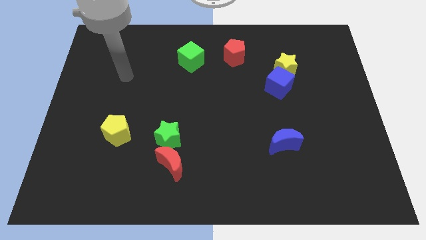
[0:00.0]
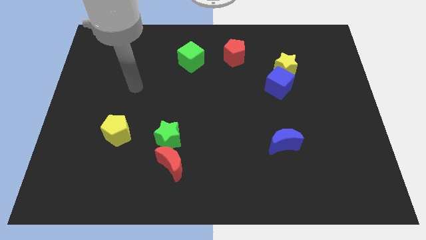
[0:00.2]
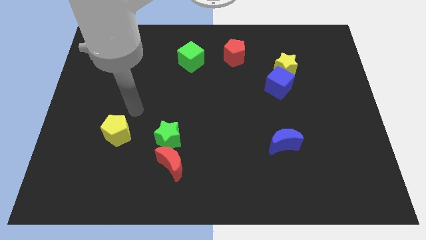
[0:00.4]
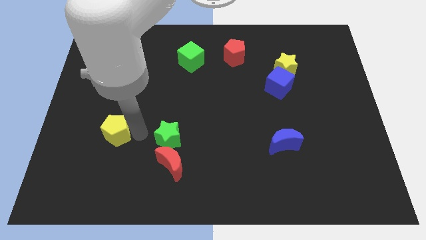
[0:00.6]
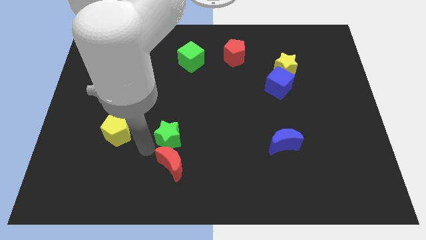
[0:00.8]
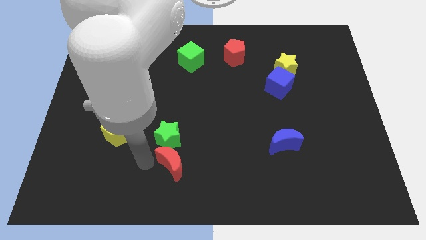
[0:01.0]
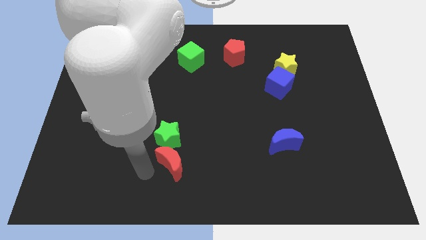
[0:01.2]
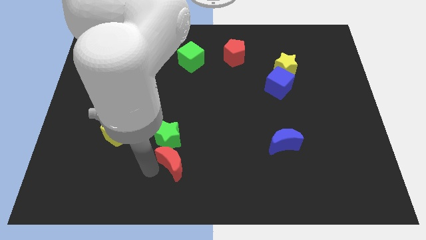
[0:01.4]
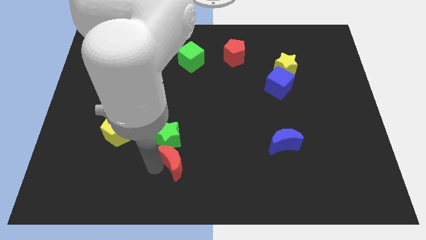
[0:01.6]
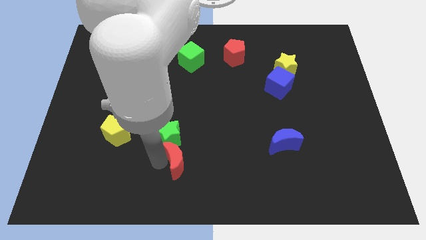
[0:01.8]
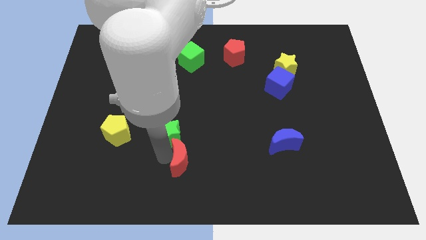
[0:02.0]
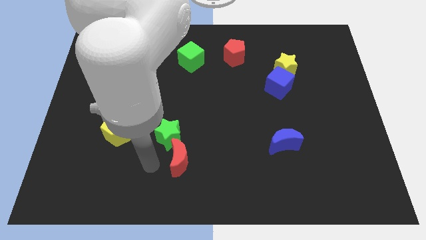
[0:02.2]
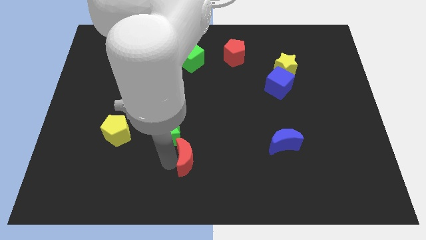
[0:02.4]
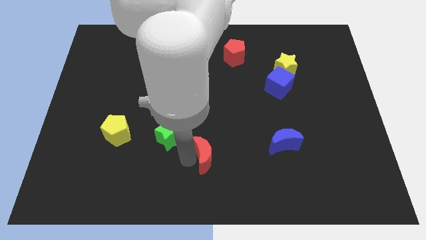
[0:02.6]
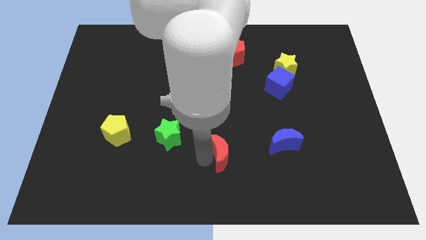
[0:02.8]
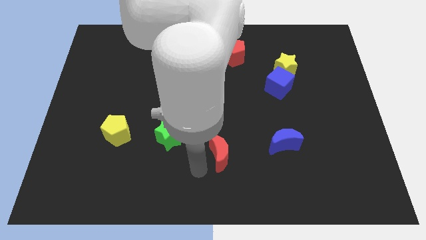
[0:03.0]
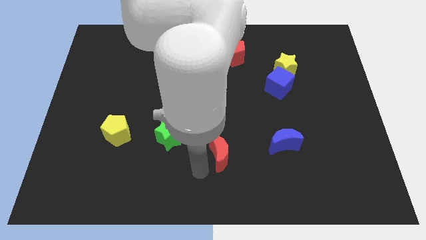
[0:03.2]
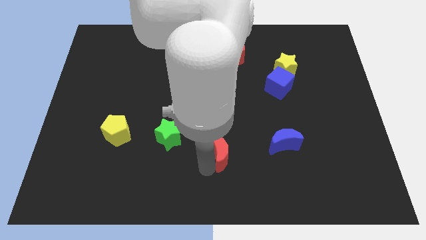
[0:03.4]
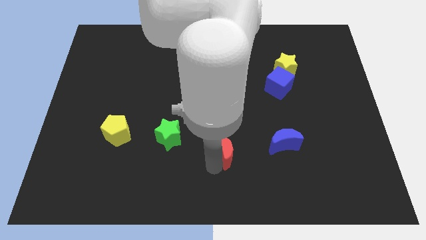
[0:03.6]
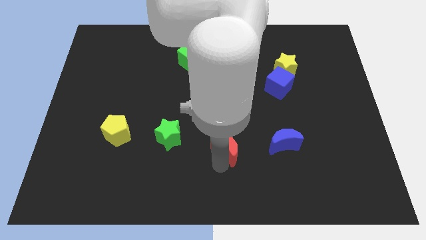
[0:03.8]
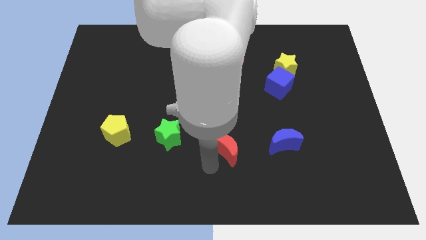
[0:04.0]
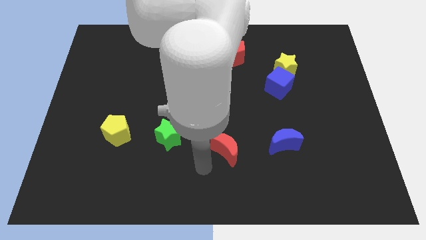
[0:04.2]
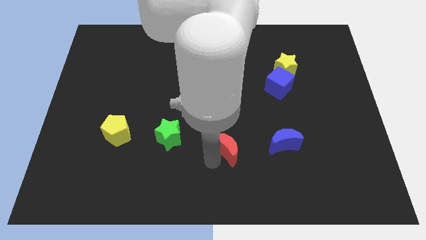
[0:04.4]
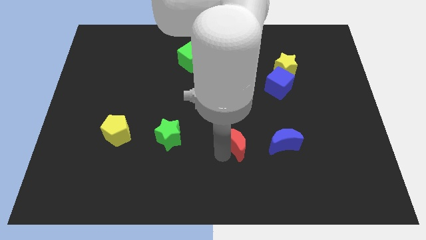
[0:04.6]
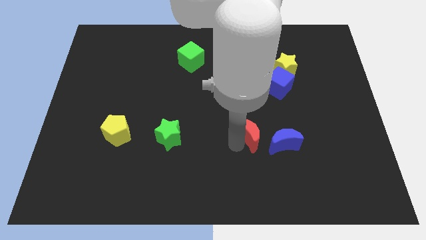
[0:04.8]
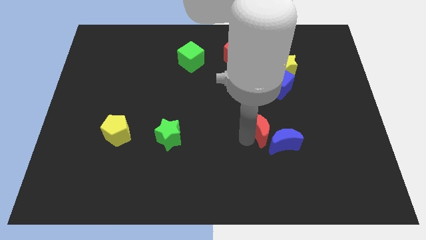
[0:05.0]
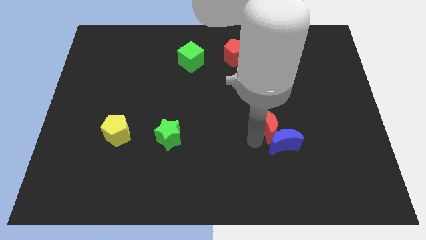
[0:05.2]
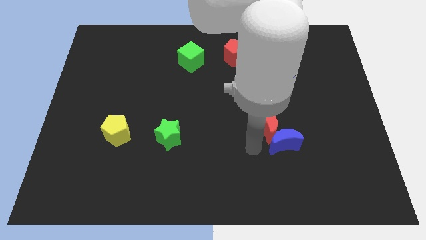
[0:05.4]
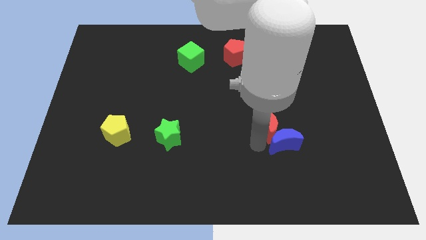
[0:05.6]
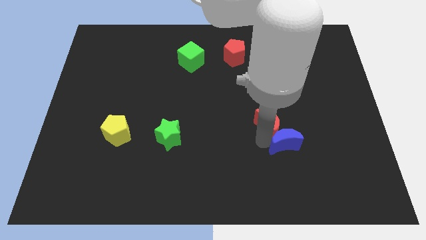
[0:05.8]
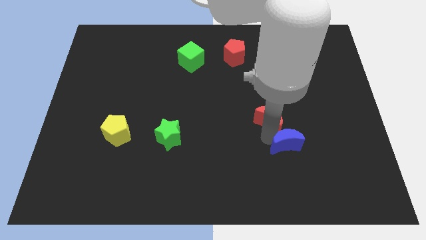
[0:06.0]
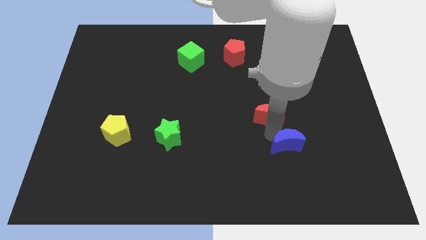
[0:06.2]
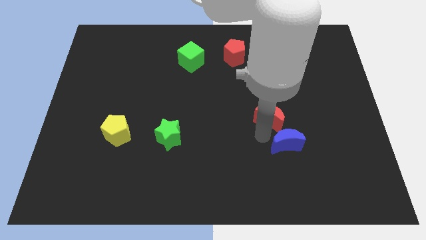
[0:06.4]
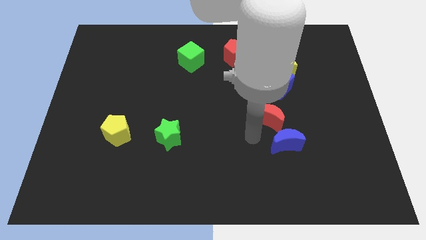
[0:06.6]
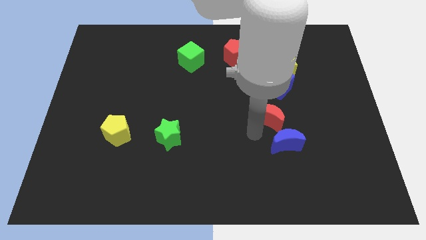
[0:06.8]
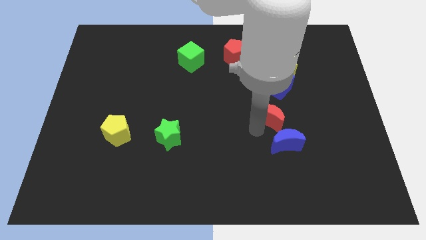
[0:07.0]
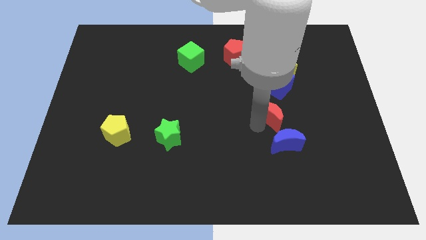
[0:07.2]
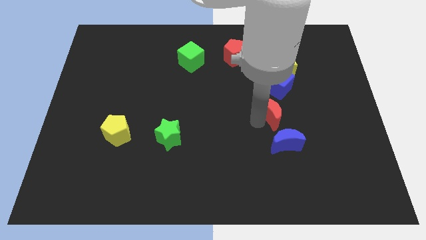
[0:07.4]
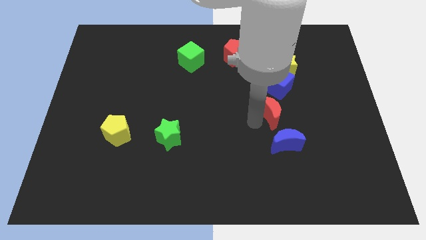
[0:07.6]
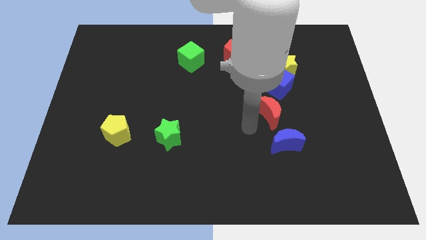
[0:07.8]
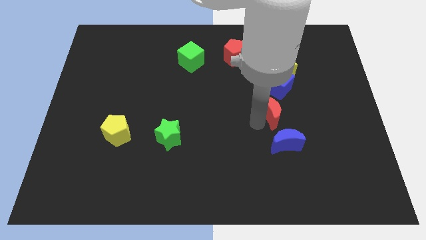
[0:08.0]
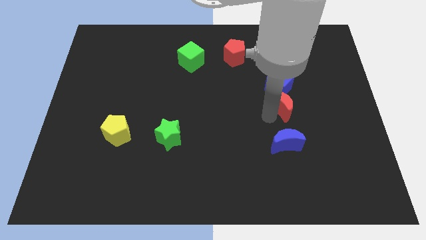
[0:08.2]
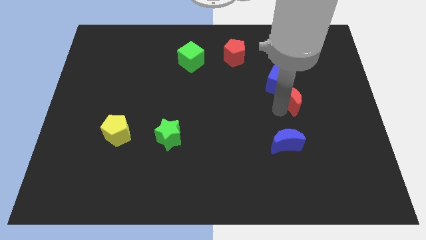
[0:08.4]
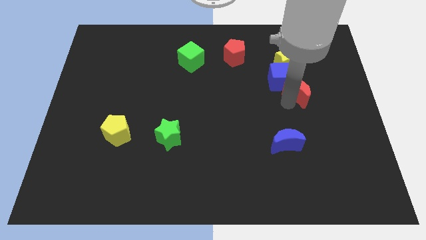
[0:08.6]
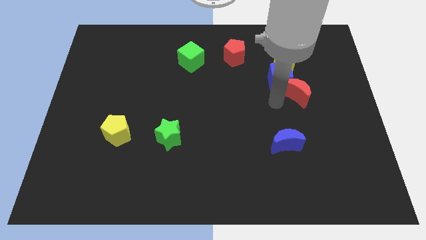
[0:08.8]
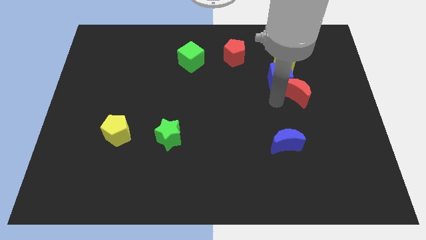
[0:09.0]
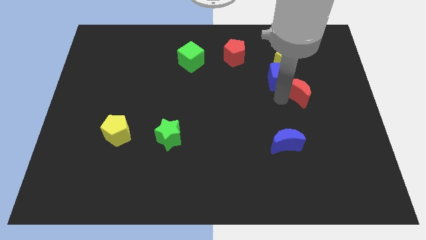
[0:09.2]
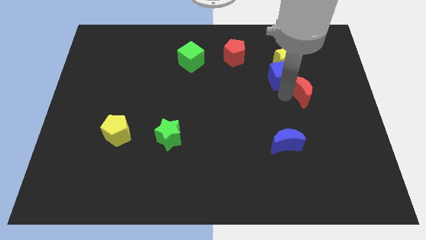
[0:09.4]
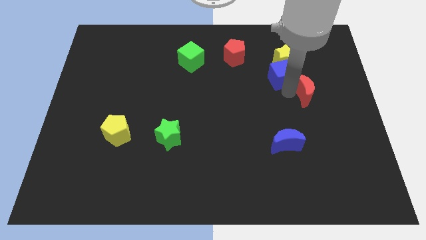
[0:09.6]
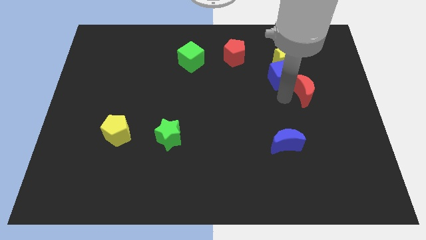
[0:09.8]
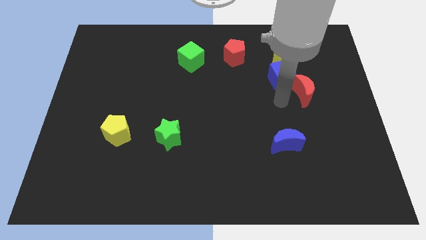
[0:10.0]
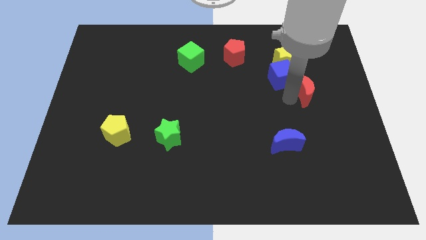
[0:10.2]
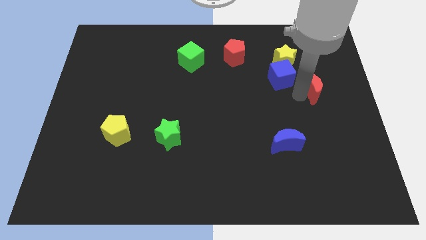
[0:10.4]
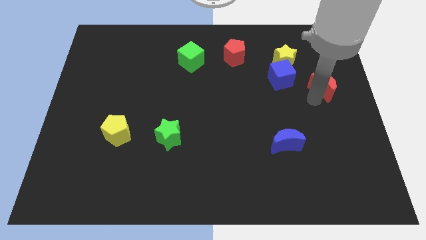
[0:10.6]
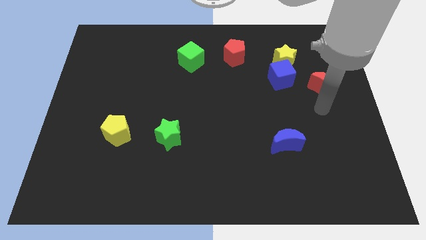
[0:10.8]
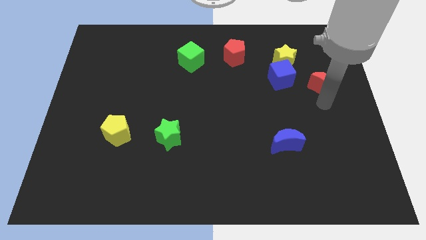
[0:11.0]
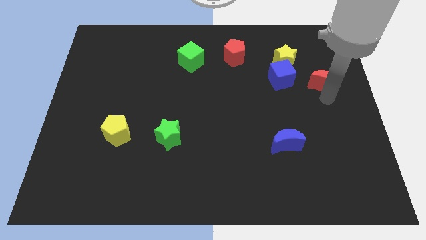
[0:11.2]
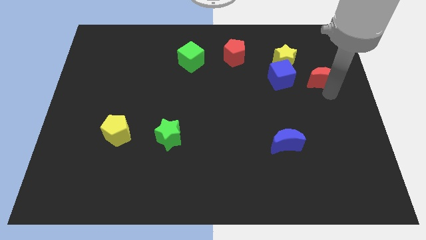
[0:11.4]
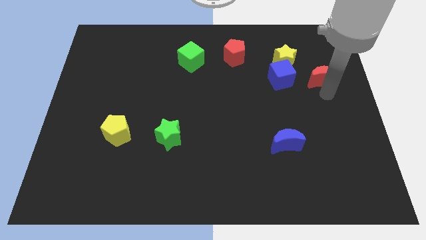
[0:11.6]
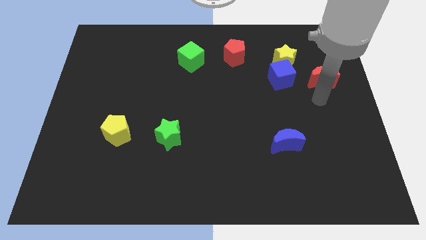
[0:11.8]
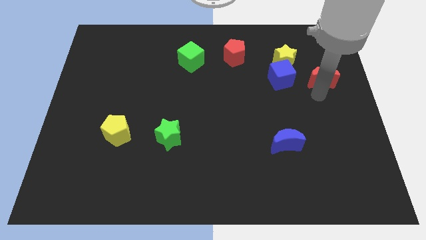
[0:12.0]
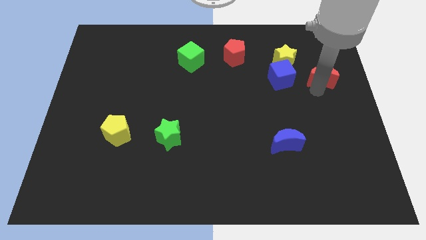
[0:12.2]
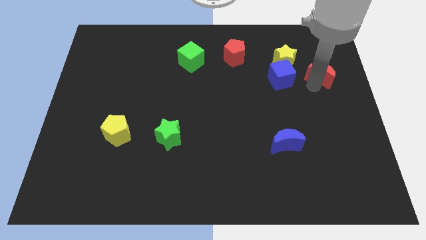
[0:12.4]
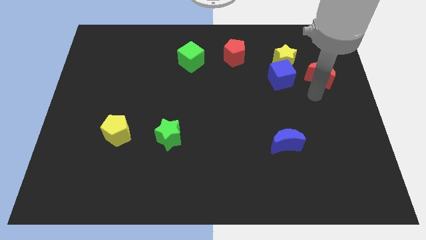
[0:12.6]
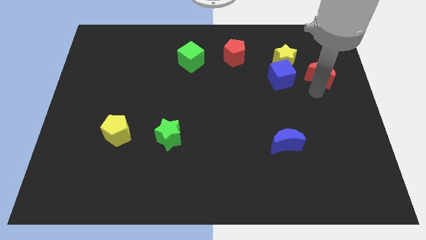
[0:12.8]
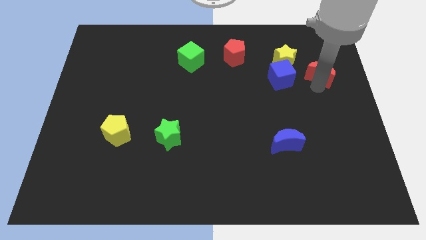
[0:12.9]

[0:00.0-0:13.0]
move the red moon to the right side of the yellow star
